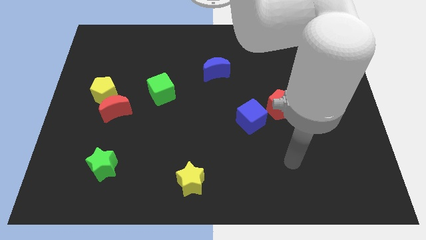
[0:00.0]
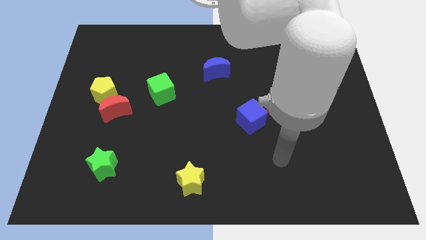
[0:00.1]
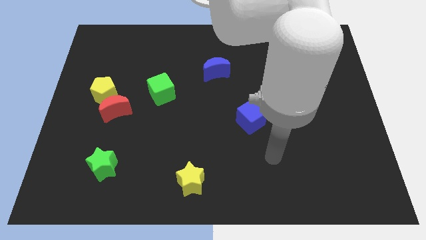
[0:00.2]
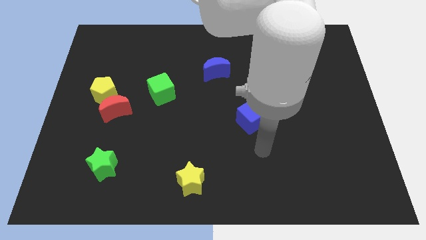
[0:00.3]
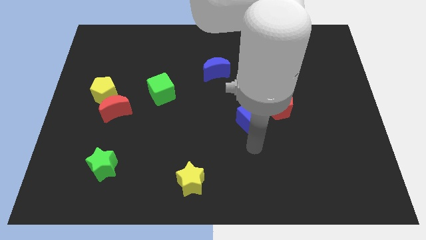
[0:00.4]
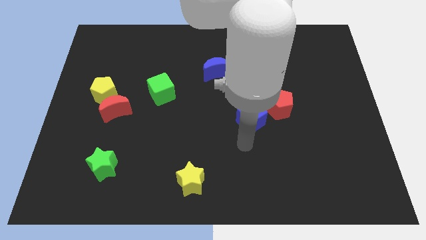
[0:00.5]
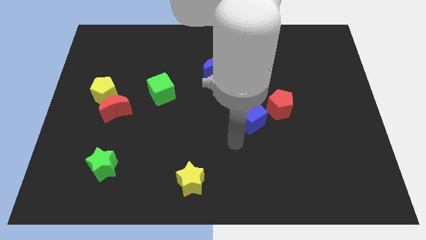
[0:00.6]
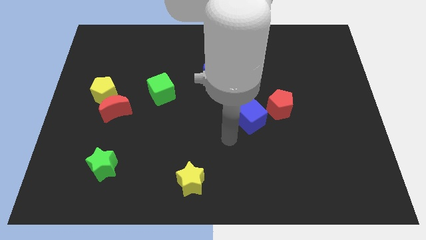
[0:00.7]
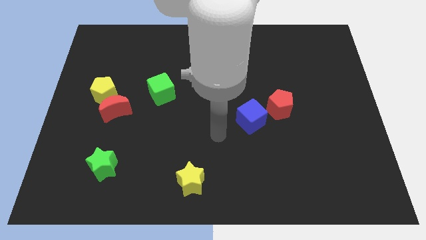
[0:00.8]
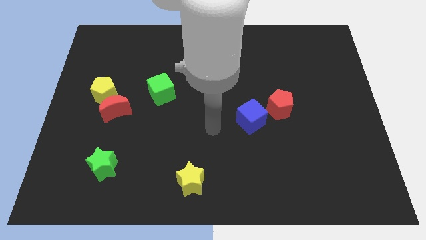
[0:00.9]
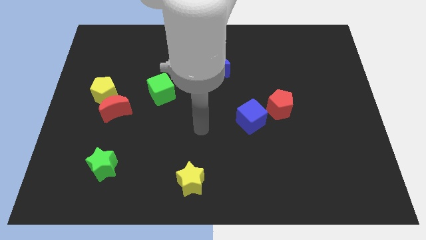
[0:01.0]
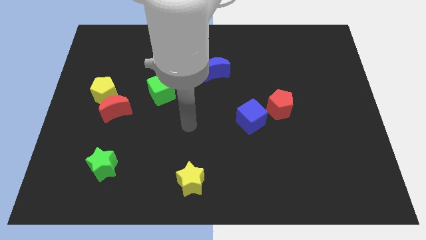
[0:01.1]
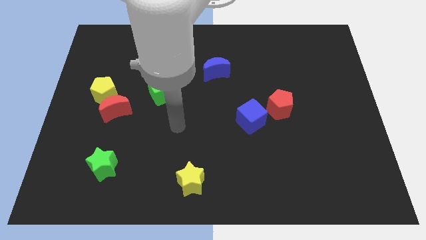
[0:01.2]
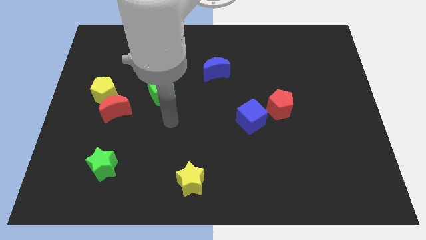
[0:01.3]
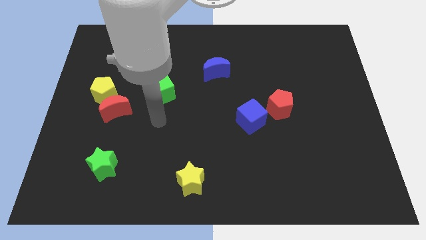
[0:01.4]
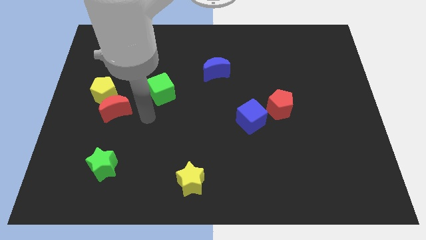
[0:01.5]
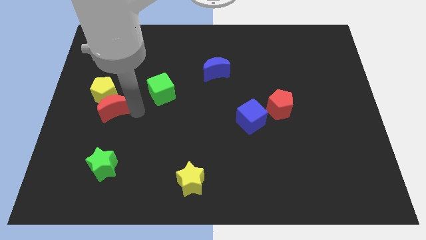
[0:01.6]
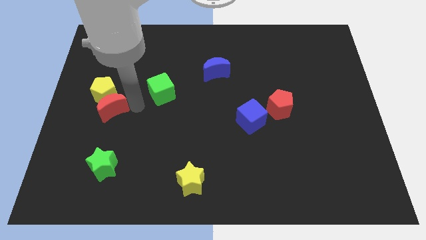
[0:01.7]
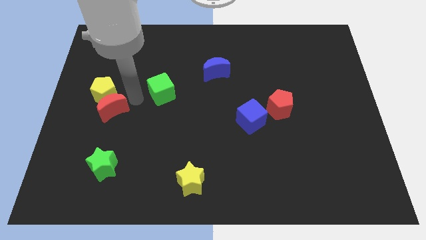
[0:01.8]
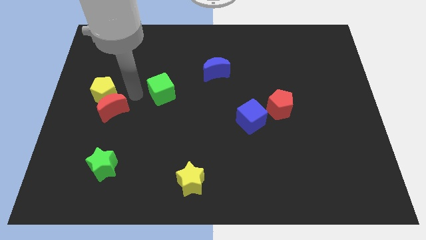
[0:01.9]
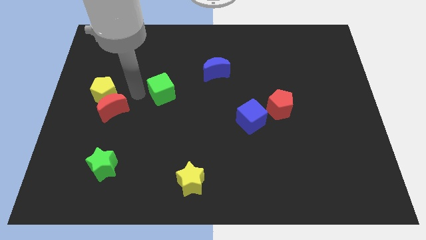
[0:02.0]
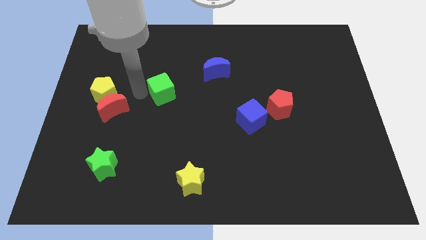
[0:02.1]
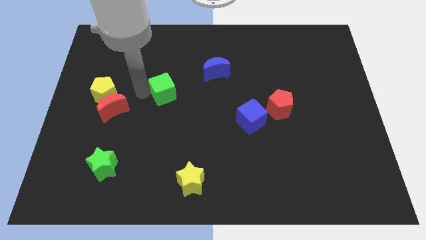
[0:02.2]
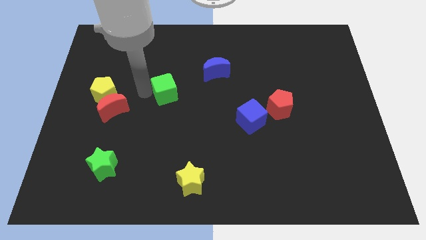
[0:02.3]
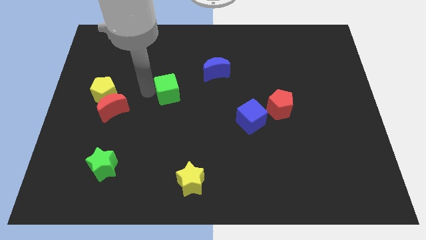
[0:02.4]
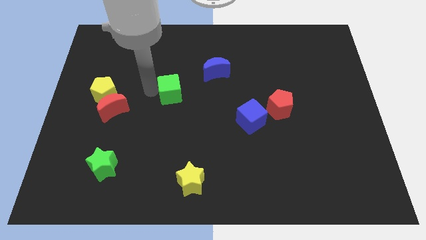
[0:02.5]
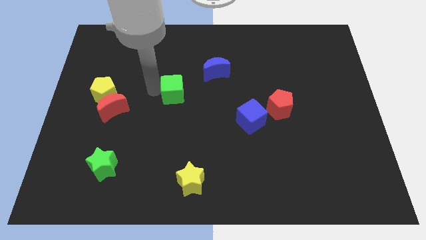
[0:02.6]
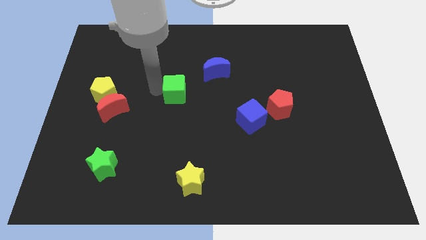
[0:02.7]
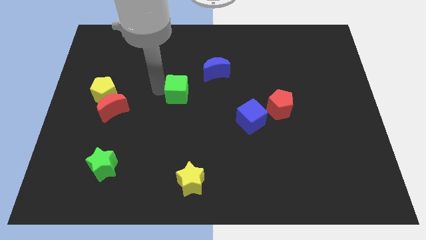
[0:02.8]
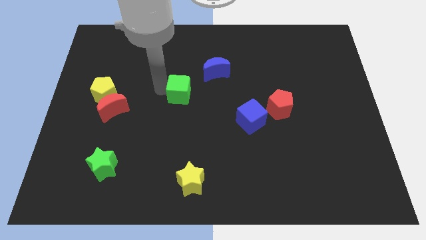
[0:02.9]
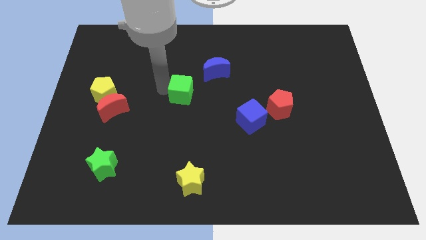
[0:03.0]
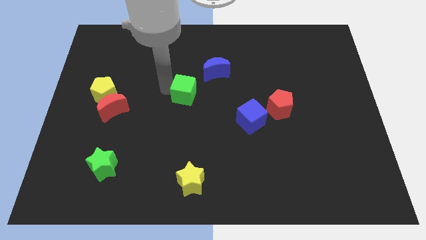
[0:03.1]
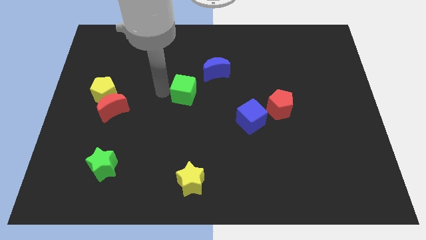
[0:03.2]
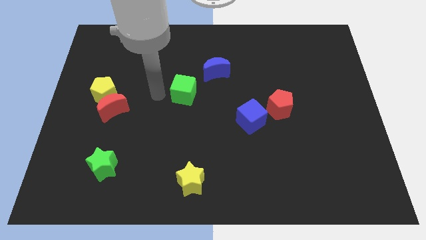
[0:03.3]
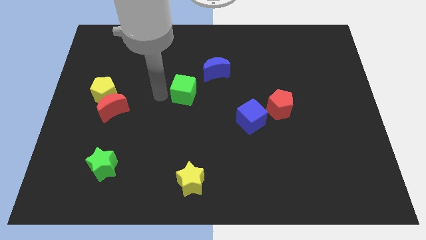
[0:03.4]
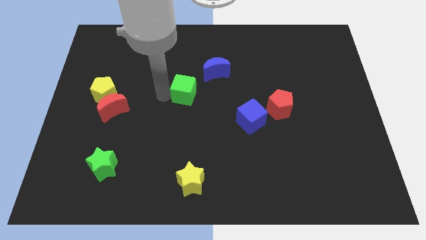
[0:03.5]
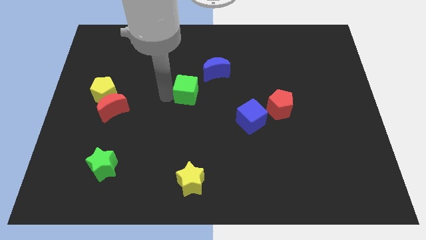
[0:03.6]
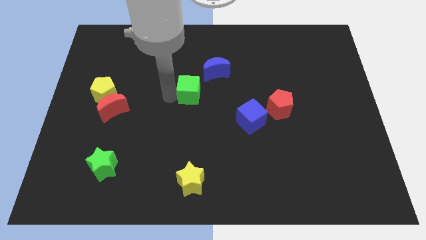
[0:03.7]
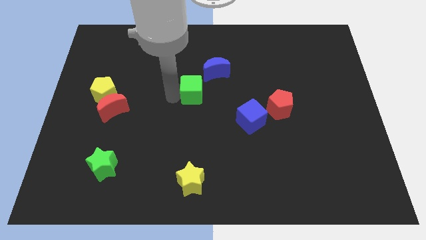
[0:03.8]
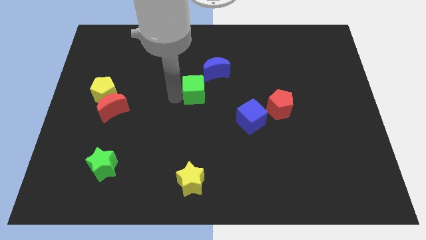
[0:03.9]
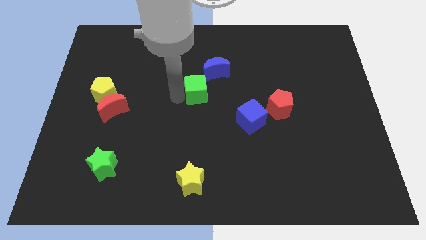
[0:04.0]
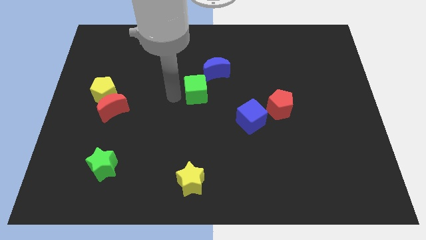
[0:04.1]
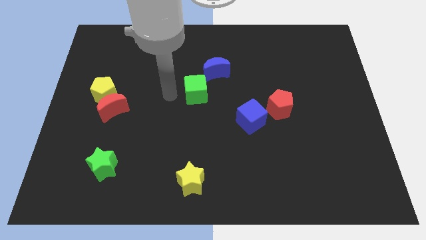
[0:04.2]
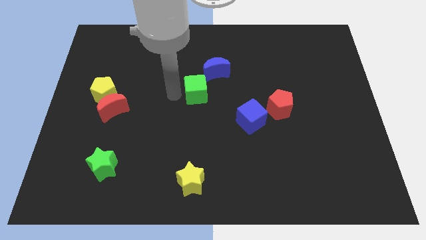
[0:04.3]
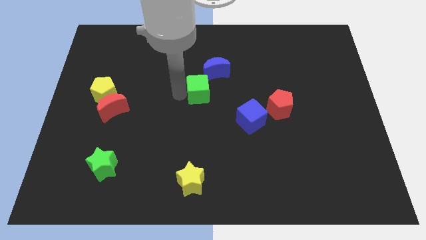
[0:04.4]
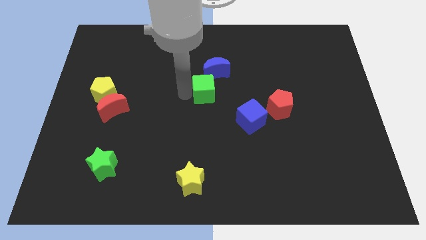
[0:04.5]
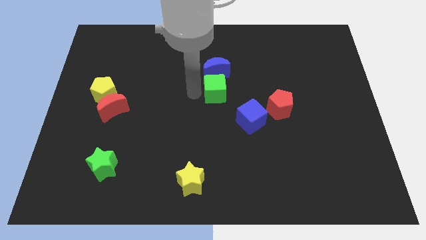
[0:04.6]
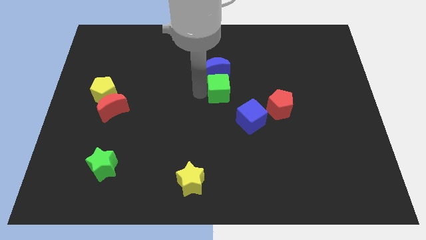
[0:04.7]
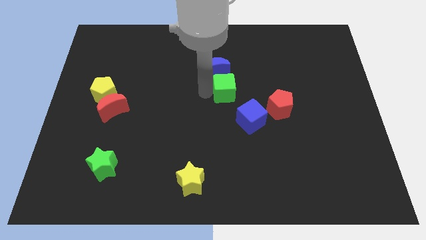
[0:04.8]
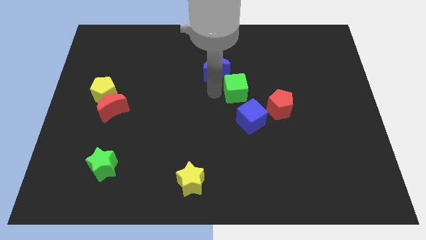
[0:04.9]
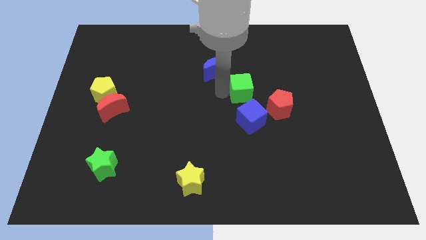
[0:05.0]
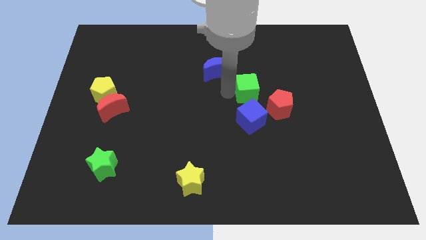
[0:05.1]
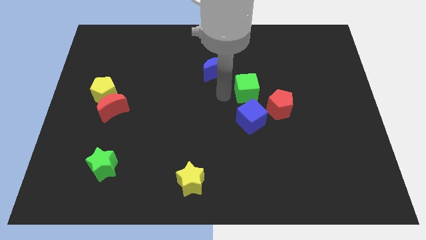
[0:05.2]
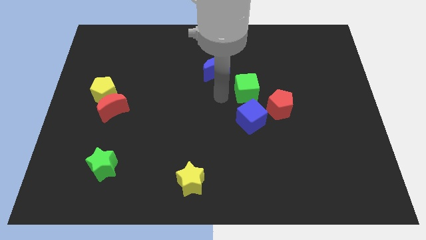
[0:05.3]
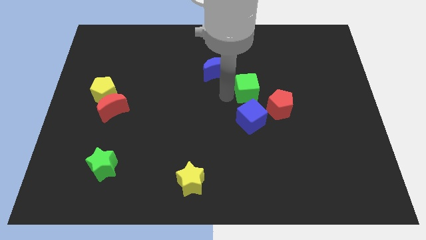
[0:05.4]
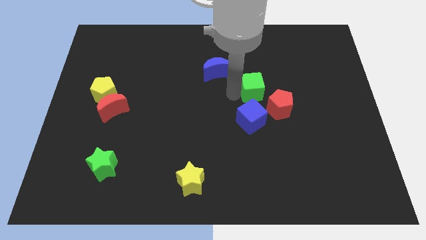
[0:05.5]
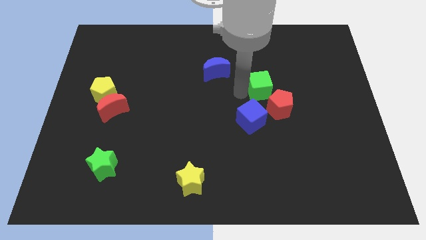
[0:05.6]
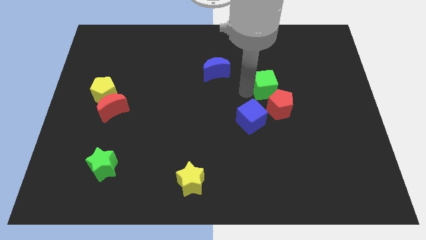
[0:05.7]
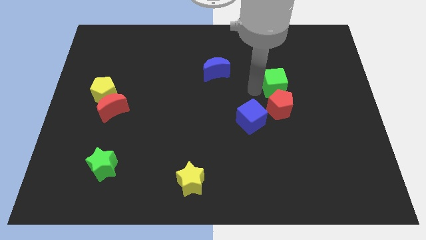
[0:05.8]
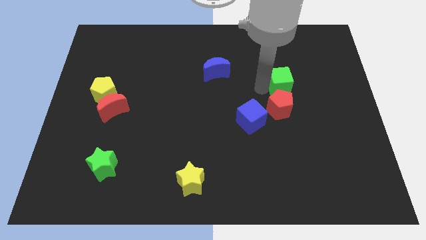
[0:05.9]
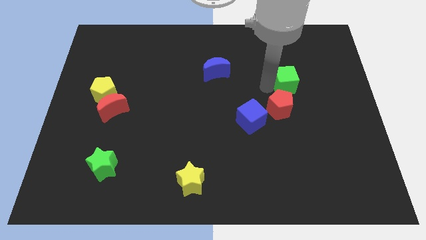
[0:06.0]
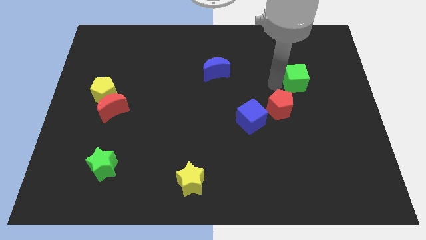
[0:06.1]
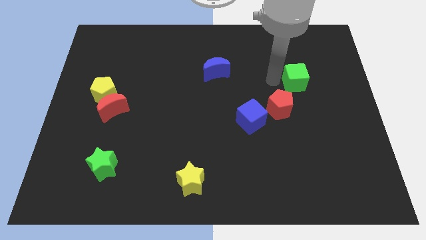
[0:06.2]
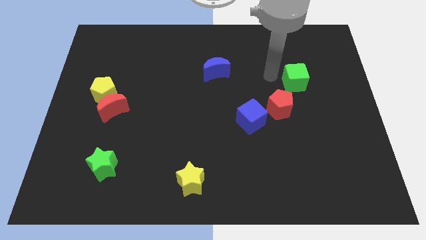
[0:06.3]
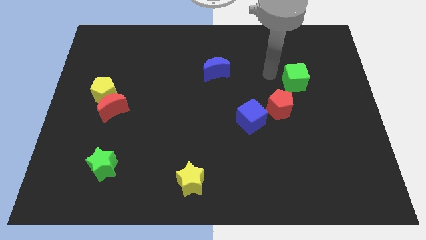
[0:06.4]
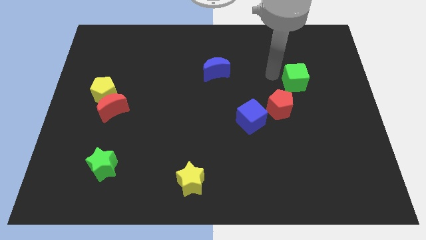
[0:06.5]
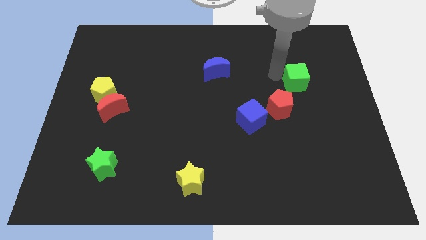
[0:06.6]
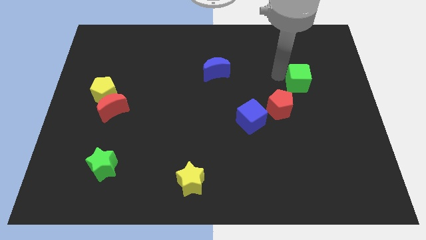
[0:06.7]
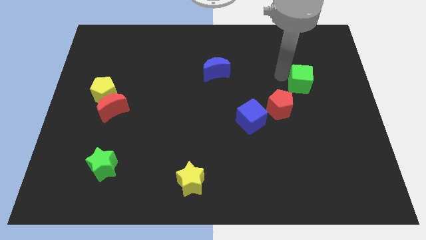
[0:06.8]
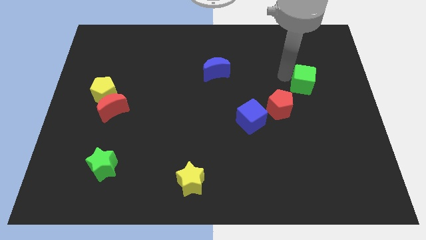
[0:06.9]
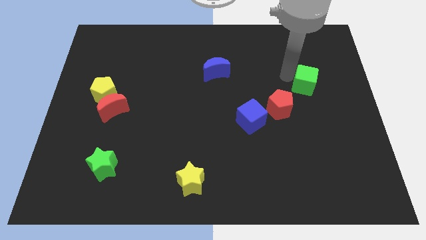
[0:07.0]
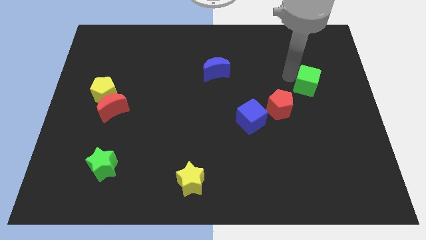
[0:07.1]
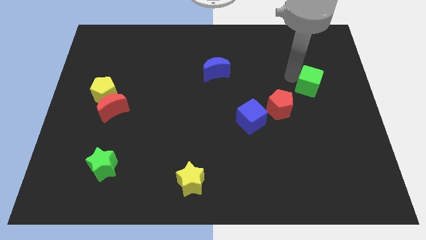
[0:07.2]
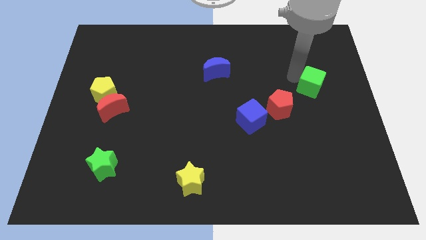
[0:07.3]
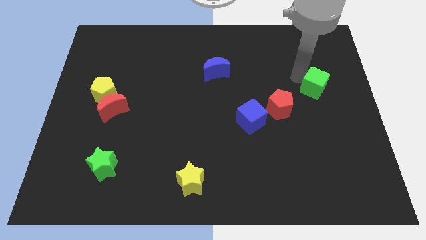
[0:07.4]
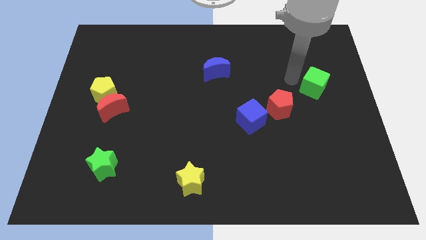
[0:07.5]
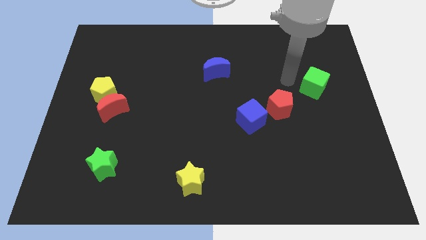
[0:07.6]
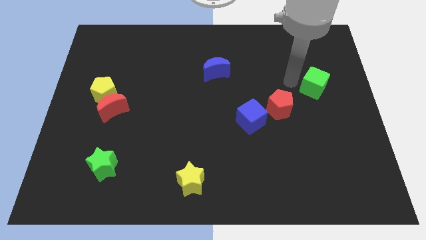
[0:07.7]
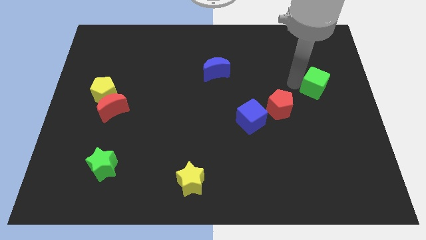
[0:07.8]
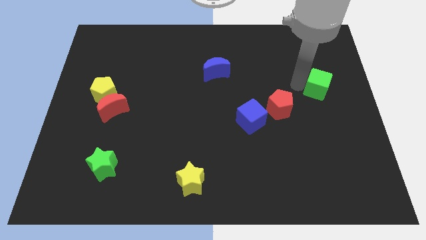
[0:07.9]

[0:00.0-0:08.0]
move the green cube to the center right
